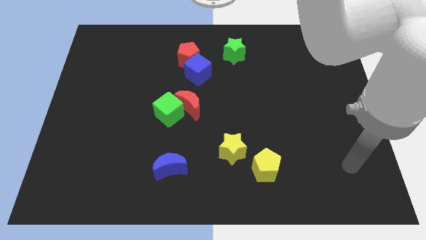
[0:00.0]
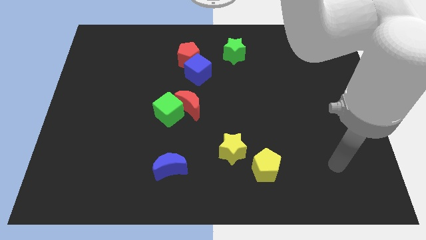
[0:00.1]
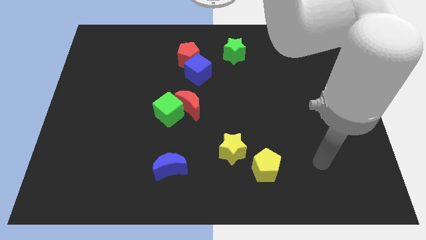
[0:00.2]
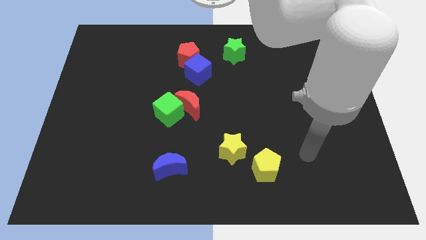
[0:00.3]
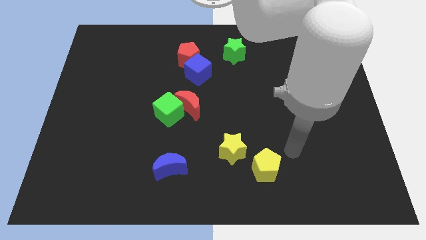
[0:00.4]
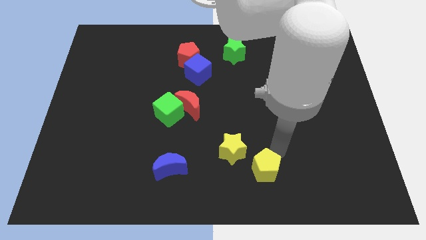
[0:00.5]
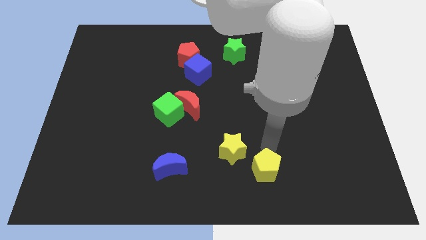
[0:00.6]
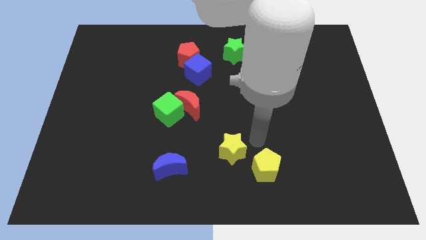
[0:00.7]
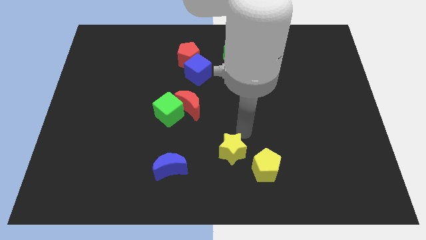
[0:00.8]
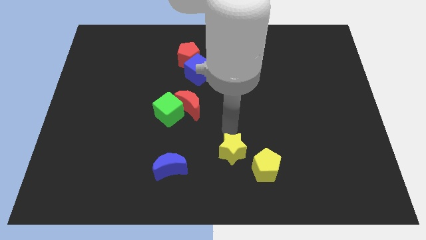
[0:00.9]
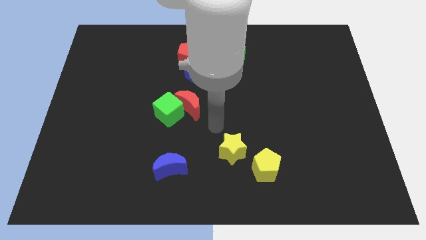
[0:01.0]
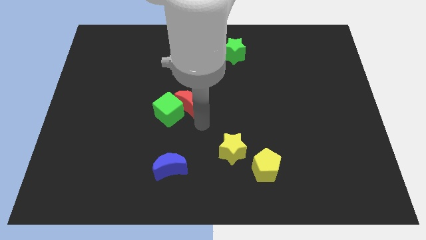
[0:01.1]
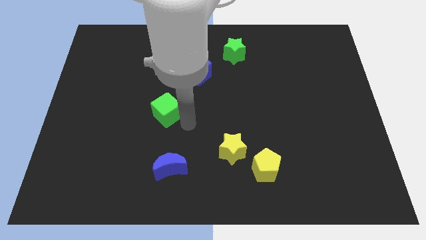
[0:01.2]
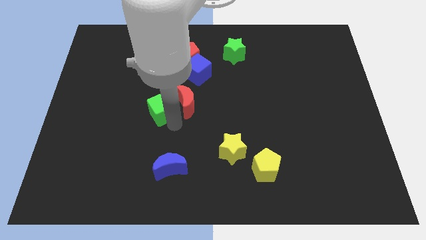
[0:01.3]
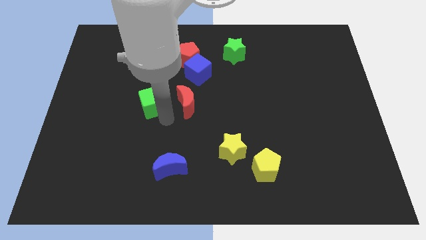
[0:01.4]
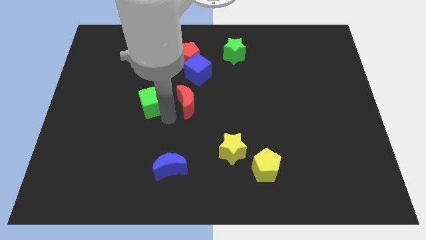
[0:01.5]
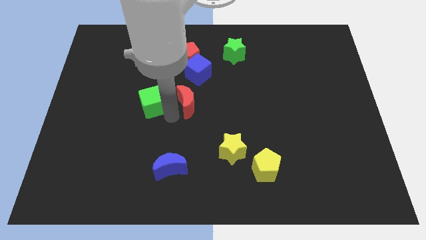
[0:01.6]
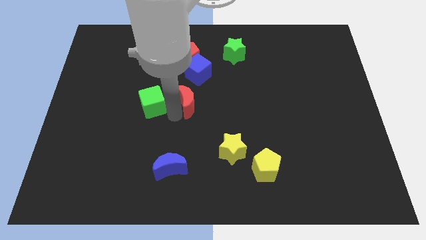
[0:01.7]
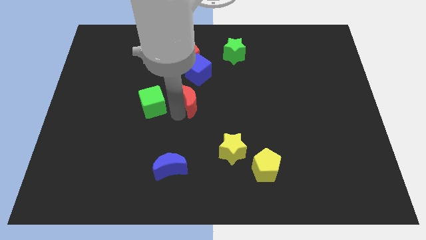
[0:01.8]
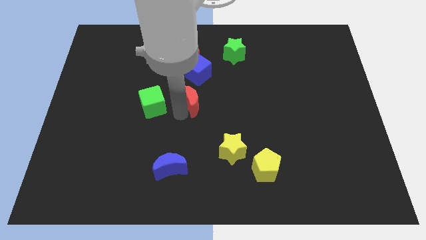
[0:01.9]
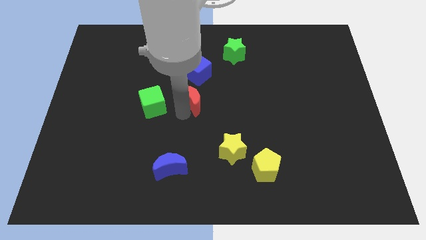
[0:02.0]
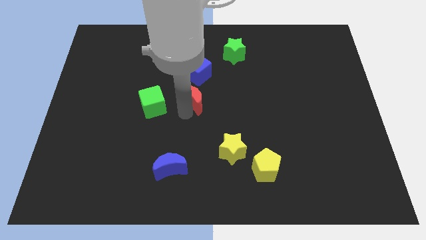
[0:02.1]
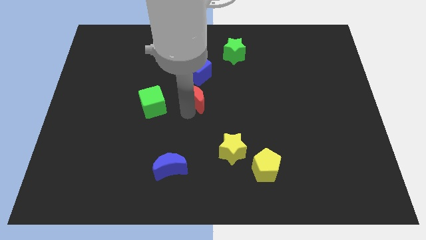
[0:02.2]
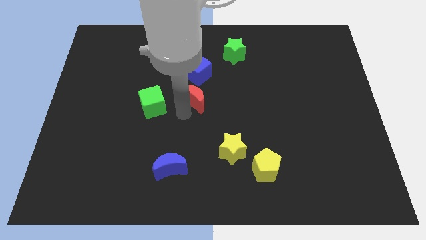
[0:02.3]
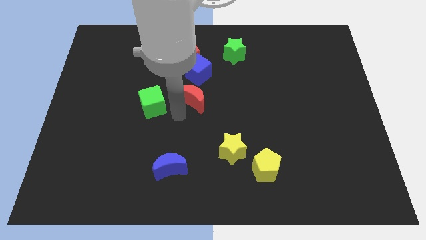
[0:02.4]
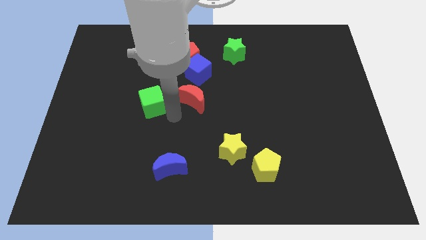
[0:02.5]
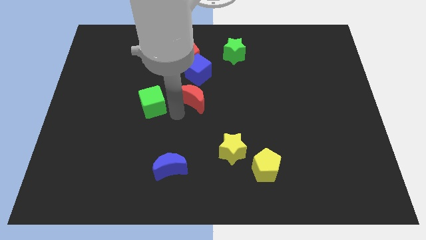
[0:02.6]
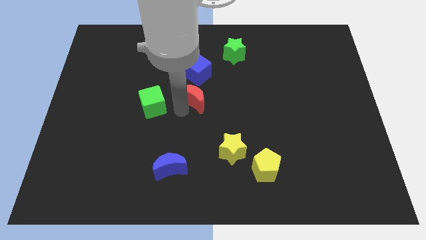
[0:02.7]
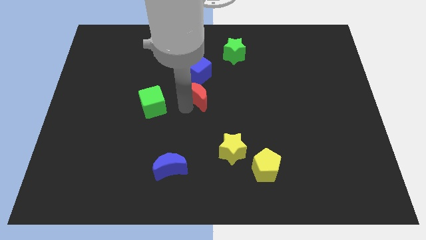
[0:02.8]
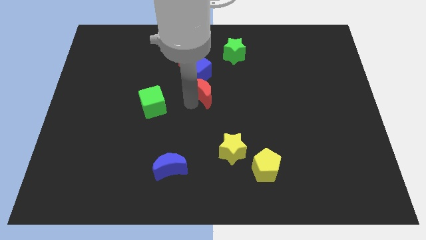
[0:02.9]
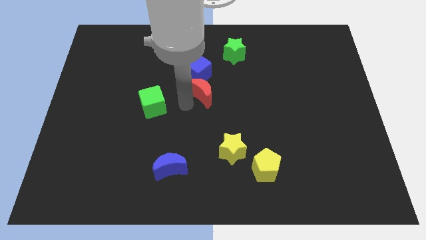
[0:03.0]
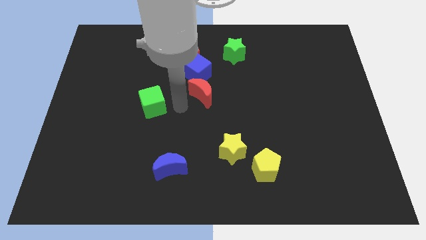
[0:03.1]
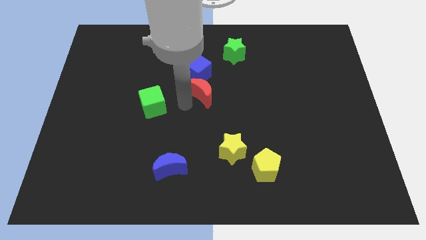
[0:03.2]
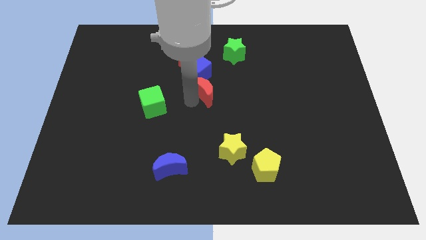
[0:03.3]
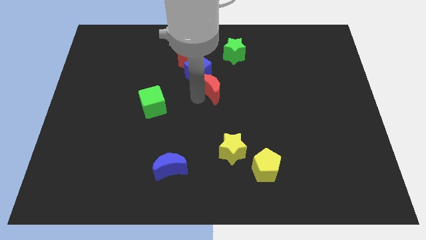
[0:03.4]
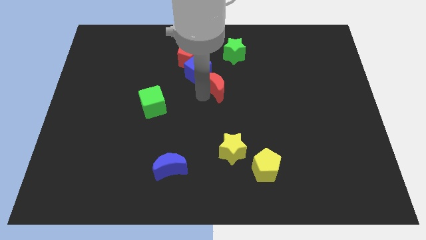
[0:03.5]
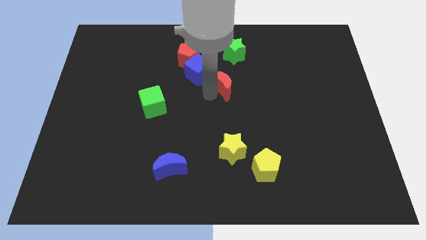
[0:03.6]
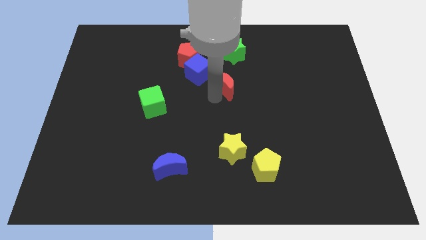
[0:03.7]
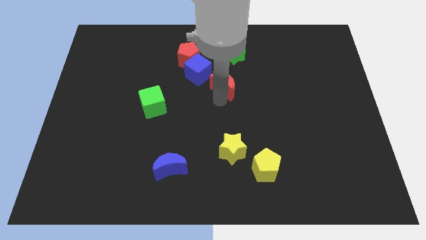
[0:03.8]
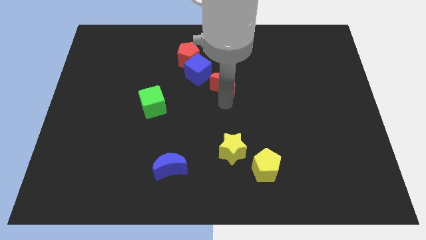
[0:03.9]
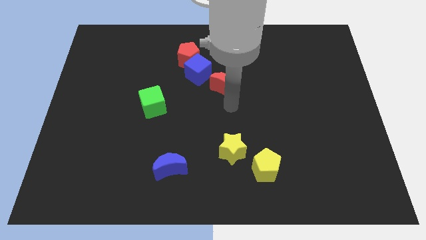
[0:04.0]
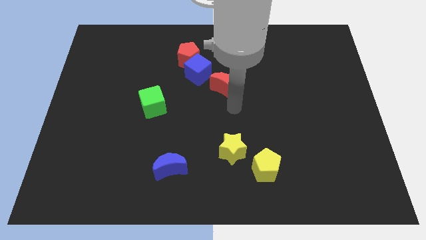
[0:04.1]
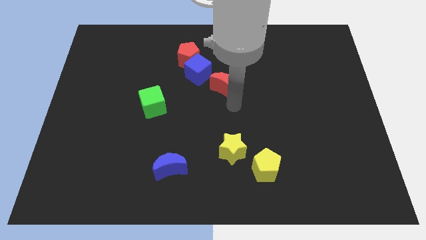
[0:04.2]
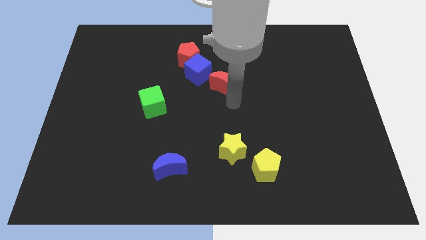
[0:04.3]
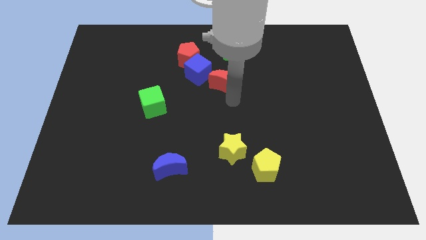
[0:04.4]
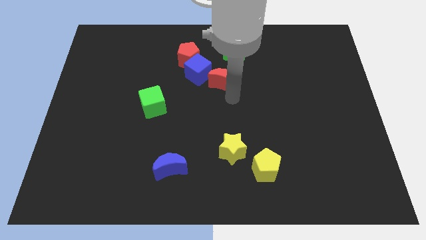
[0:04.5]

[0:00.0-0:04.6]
move the red moon to the bottom left side of the green star

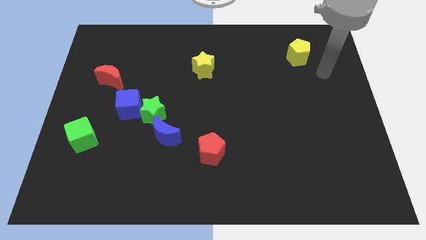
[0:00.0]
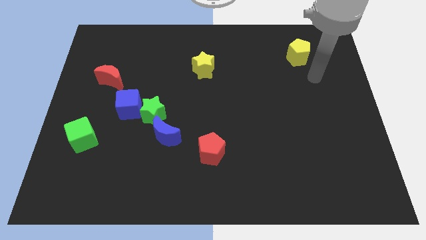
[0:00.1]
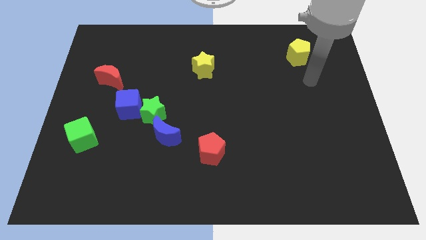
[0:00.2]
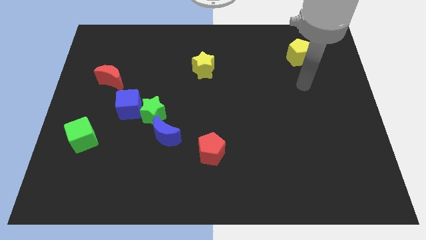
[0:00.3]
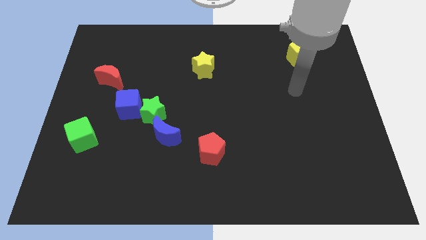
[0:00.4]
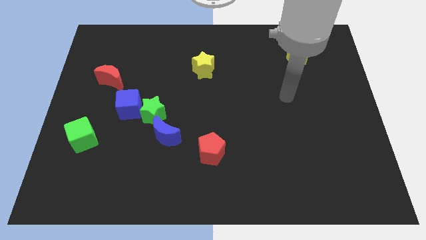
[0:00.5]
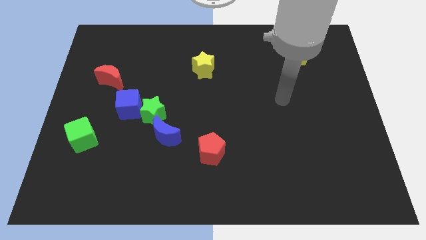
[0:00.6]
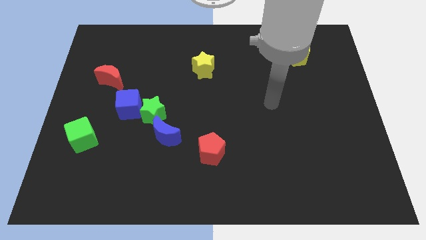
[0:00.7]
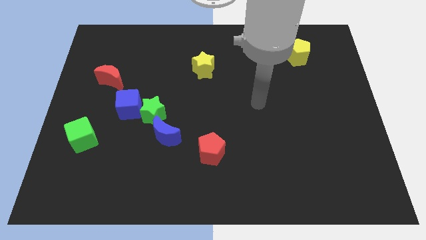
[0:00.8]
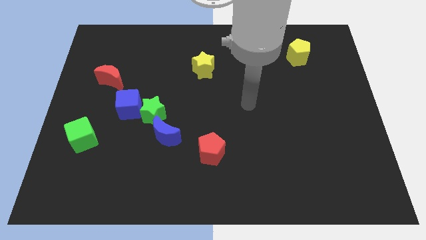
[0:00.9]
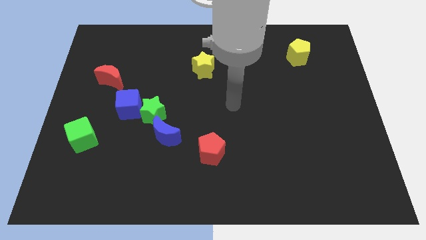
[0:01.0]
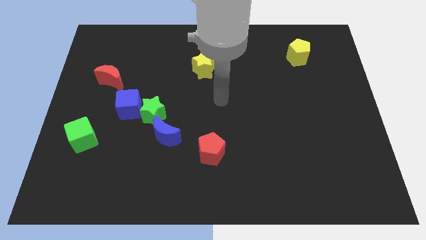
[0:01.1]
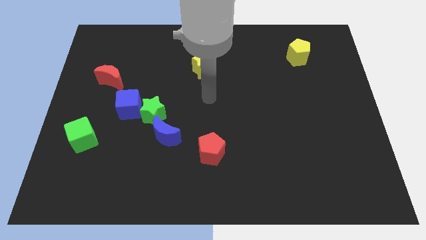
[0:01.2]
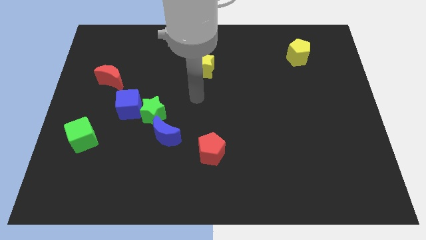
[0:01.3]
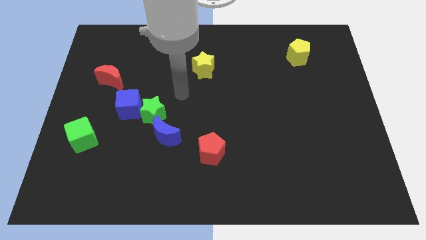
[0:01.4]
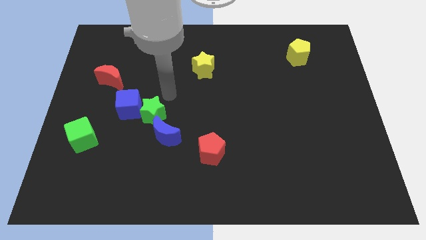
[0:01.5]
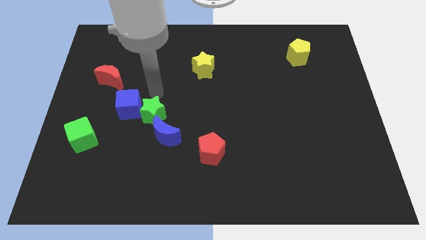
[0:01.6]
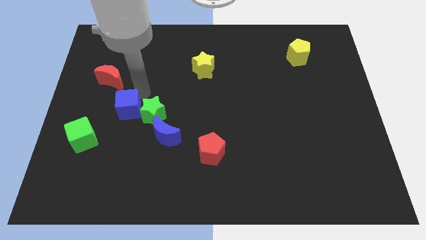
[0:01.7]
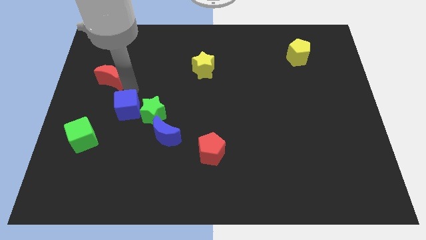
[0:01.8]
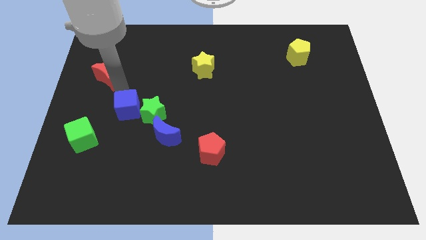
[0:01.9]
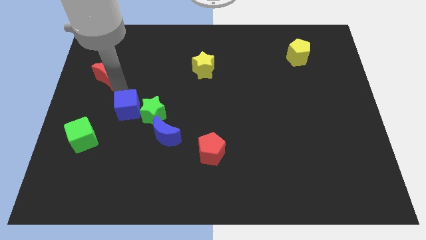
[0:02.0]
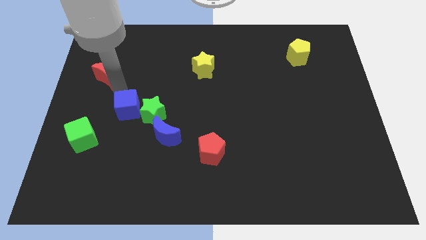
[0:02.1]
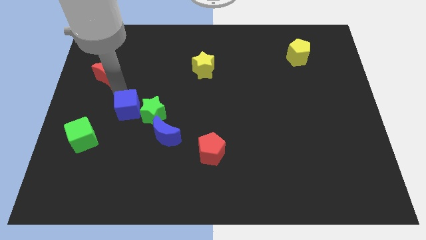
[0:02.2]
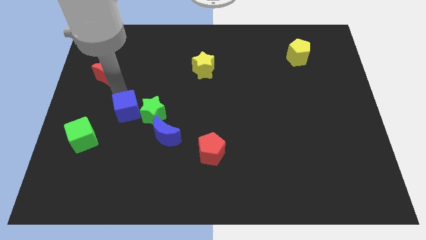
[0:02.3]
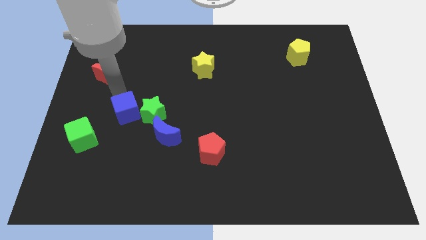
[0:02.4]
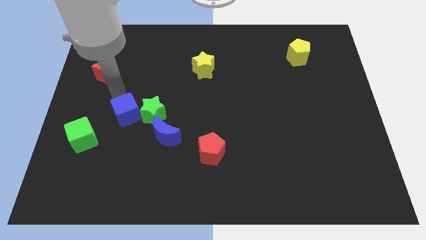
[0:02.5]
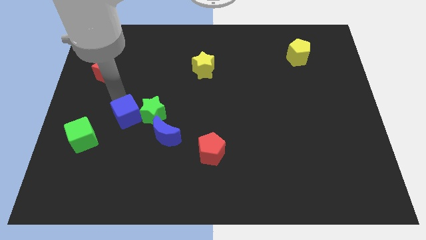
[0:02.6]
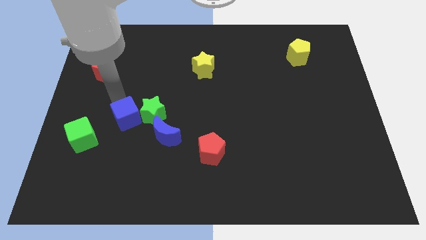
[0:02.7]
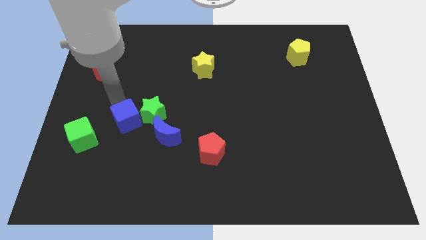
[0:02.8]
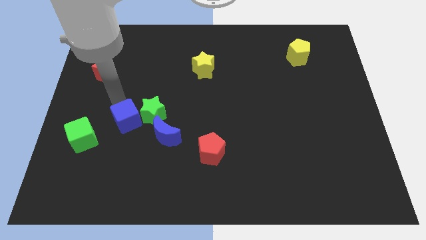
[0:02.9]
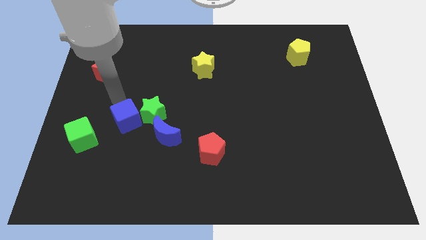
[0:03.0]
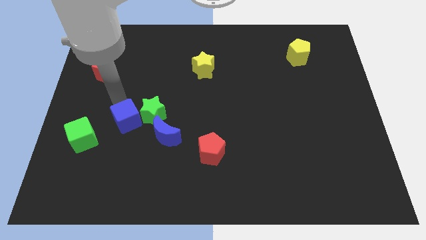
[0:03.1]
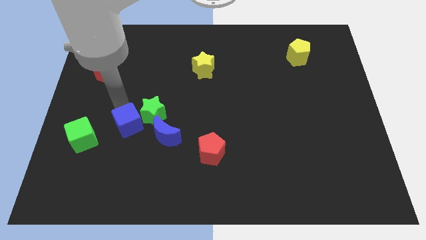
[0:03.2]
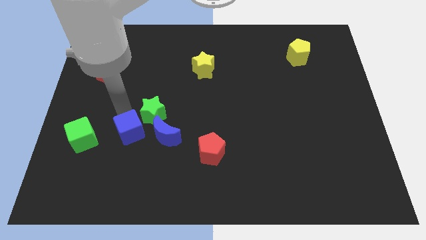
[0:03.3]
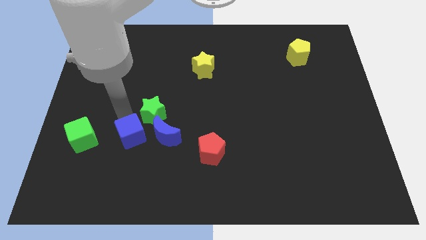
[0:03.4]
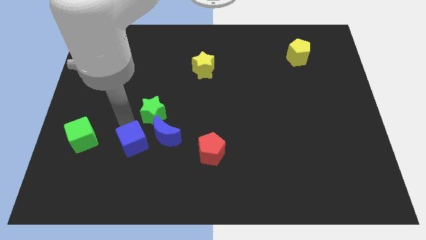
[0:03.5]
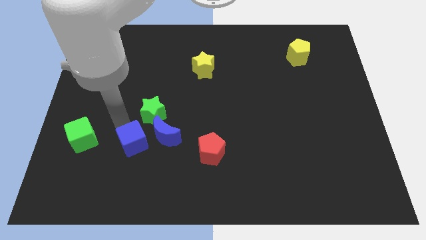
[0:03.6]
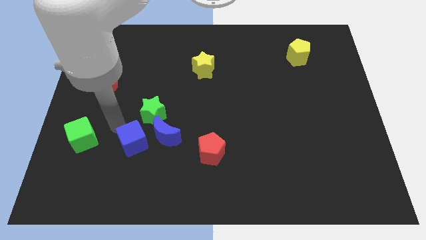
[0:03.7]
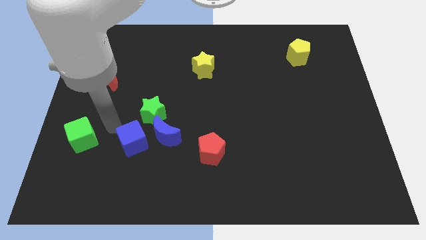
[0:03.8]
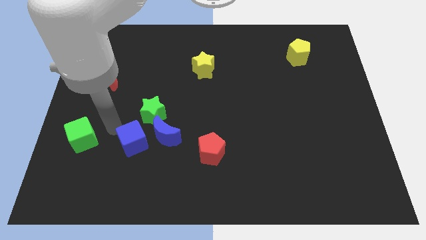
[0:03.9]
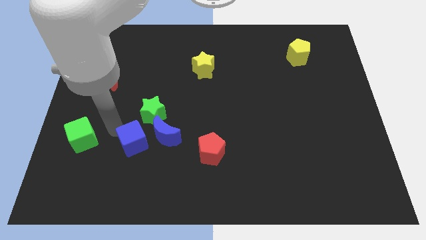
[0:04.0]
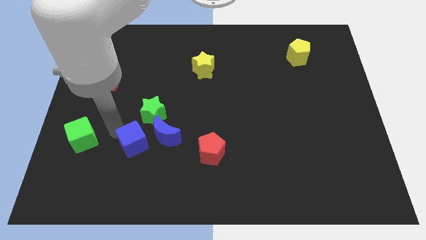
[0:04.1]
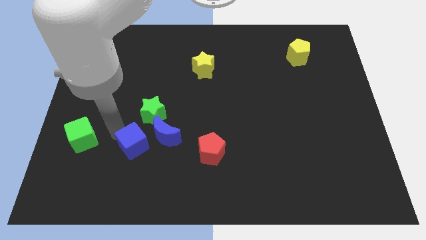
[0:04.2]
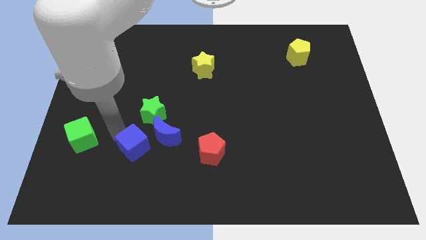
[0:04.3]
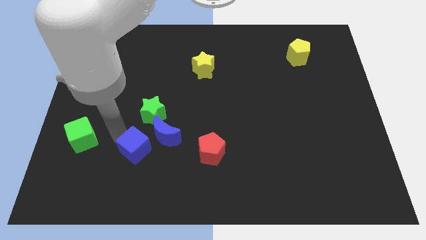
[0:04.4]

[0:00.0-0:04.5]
move the blue cube left of the red pentagon
